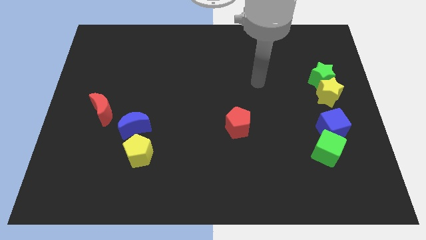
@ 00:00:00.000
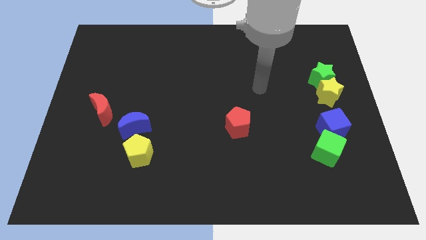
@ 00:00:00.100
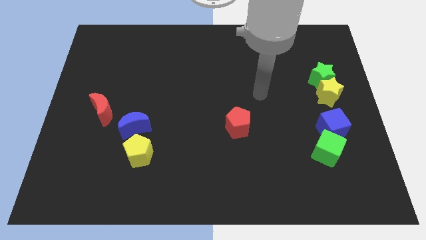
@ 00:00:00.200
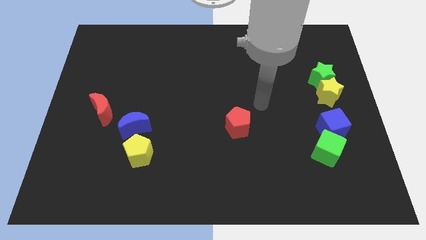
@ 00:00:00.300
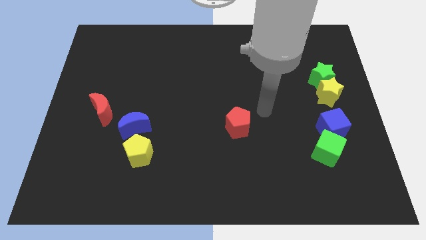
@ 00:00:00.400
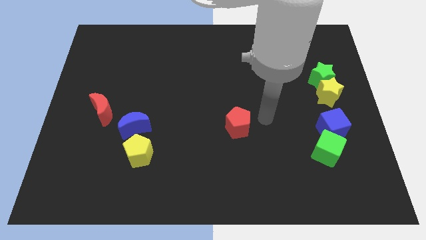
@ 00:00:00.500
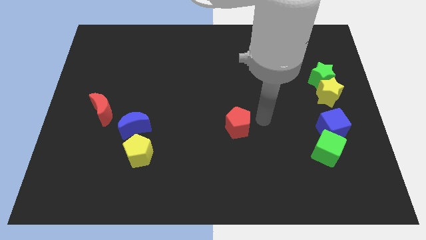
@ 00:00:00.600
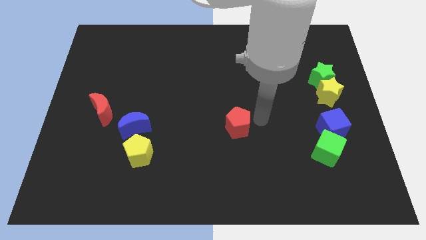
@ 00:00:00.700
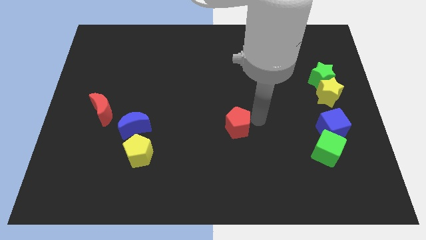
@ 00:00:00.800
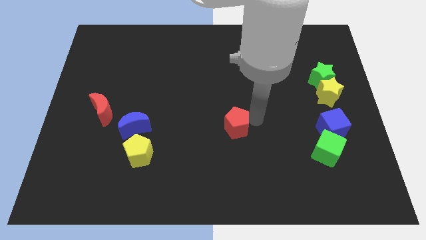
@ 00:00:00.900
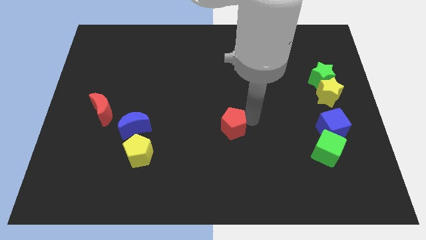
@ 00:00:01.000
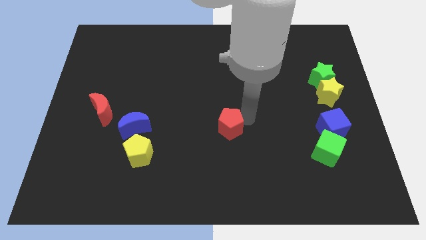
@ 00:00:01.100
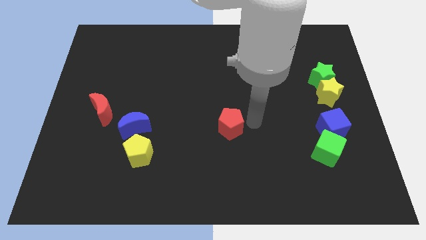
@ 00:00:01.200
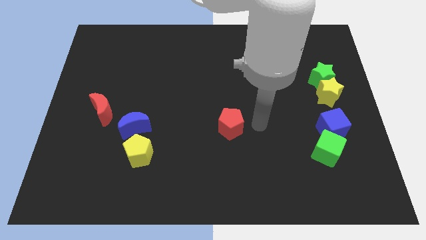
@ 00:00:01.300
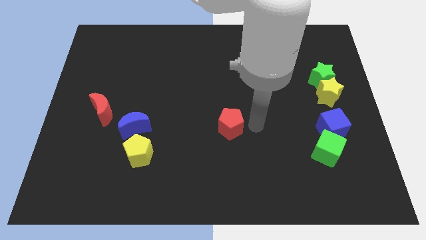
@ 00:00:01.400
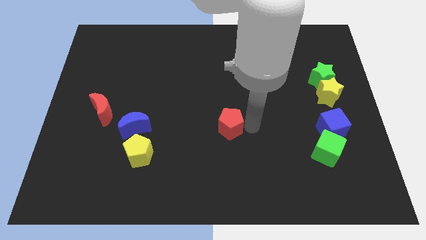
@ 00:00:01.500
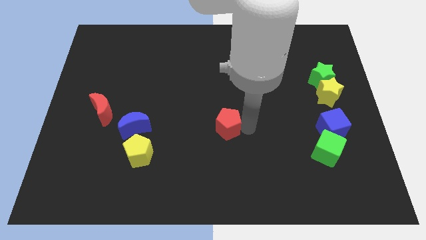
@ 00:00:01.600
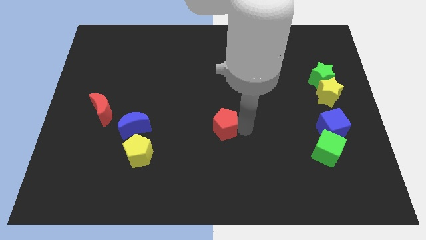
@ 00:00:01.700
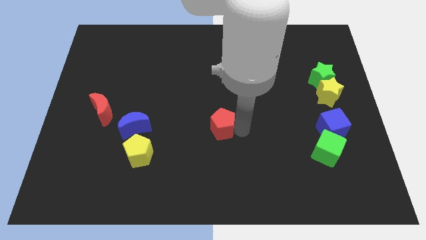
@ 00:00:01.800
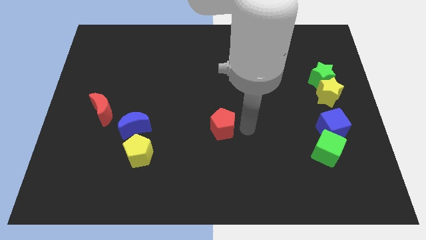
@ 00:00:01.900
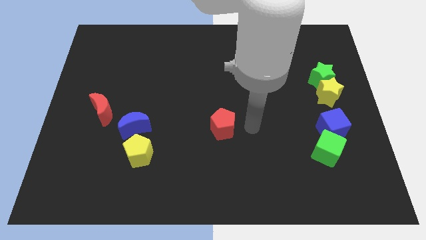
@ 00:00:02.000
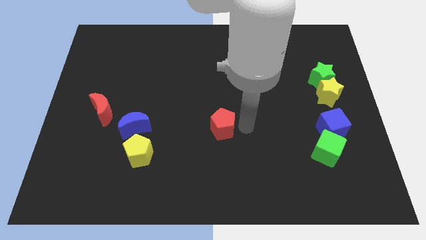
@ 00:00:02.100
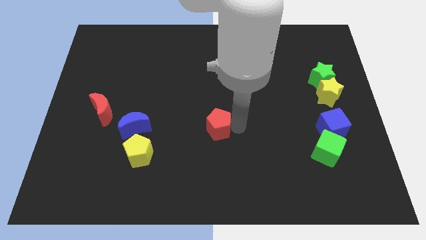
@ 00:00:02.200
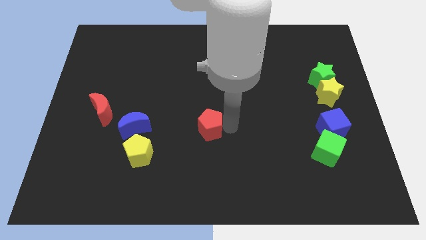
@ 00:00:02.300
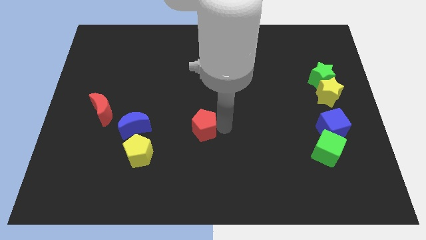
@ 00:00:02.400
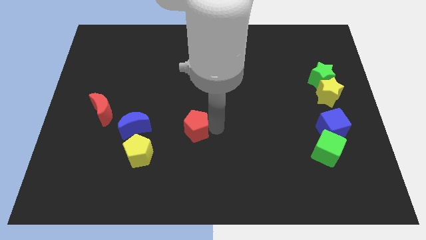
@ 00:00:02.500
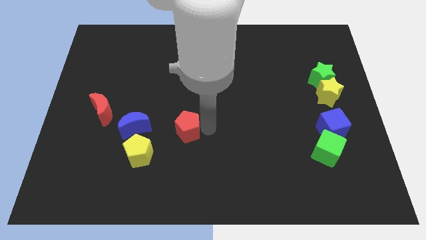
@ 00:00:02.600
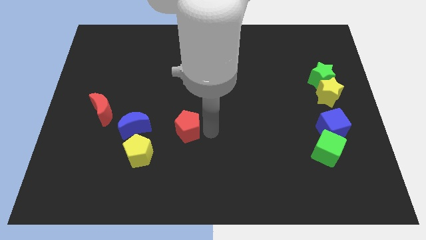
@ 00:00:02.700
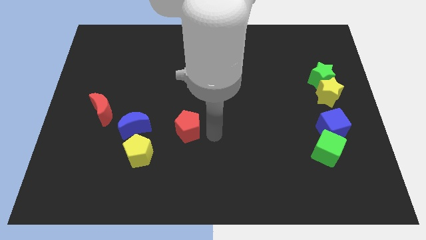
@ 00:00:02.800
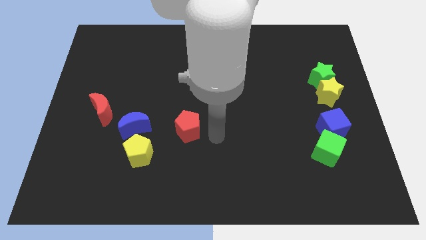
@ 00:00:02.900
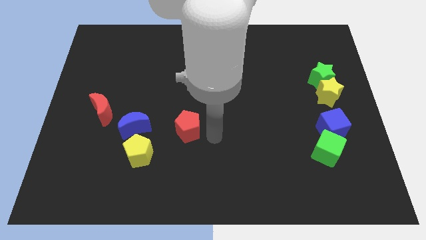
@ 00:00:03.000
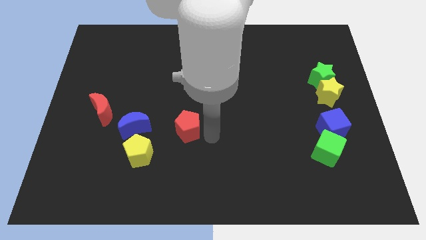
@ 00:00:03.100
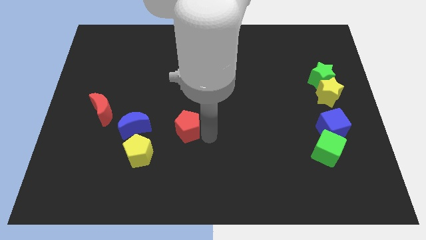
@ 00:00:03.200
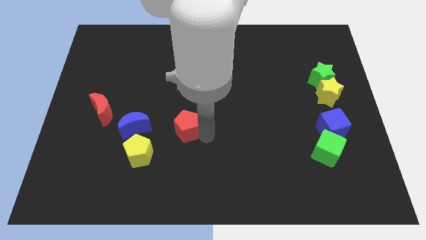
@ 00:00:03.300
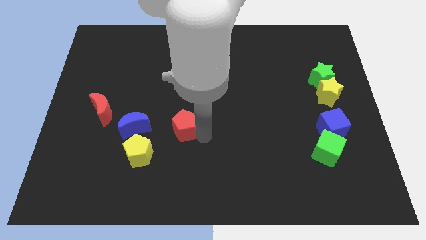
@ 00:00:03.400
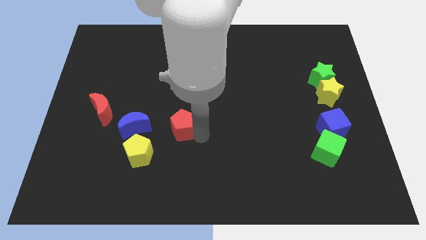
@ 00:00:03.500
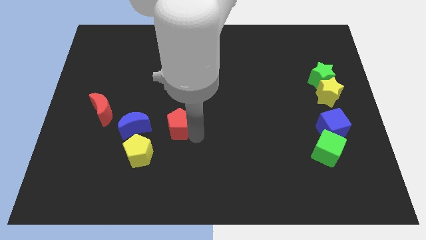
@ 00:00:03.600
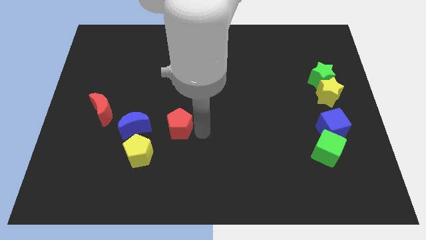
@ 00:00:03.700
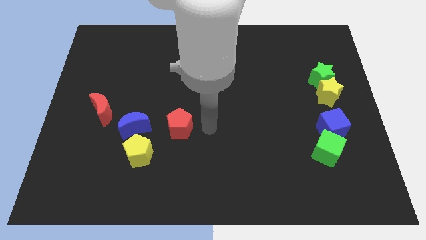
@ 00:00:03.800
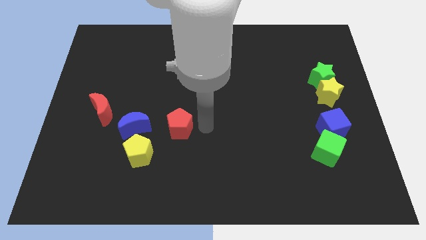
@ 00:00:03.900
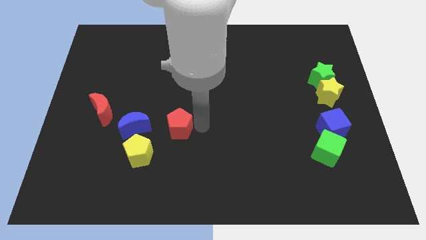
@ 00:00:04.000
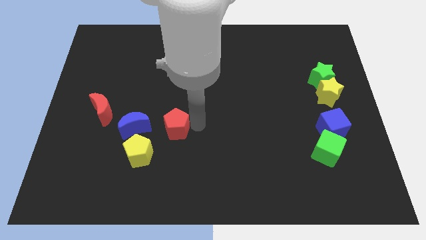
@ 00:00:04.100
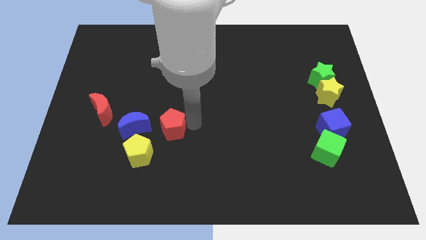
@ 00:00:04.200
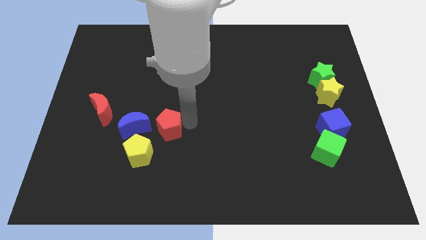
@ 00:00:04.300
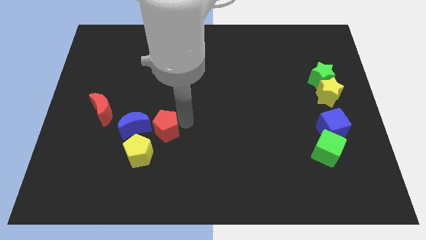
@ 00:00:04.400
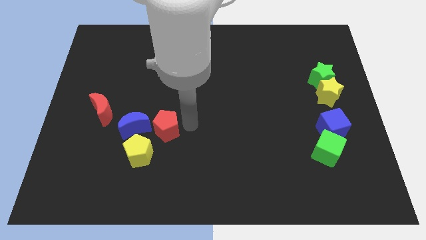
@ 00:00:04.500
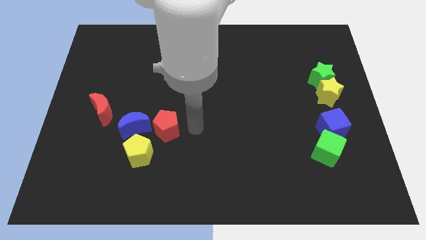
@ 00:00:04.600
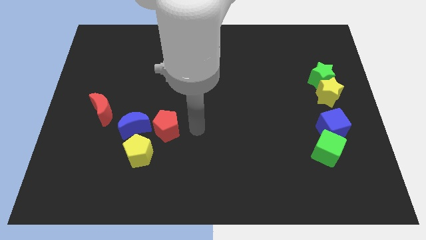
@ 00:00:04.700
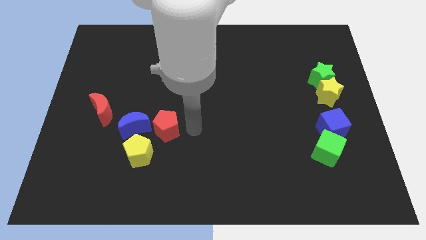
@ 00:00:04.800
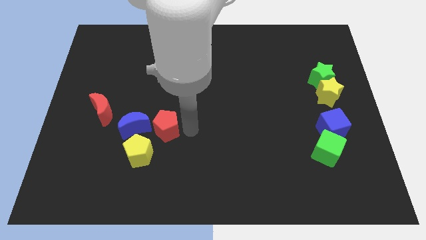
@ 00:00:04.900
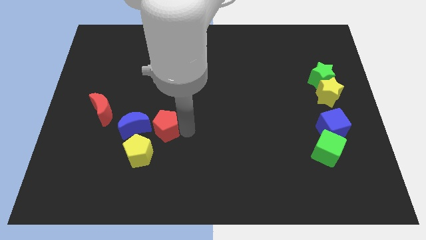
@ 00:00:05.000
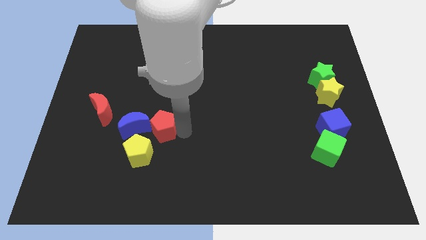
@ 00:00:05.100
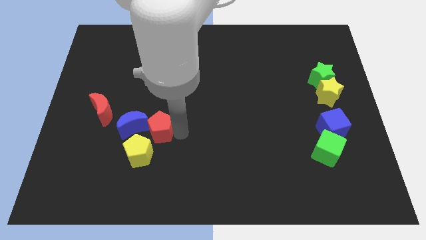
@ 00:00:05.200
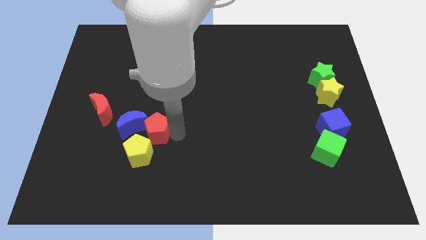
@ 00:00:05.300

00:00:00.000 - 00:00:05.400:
push the red pentagon close to the blue moon

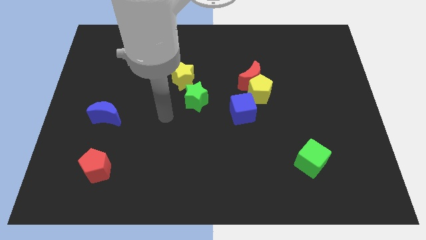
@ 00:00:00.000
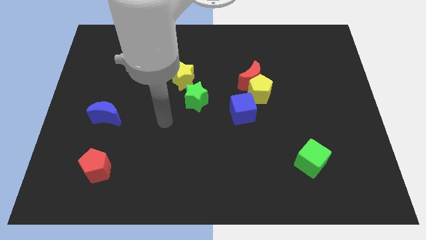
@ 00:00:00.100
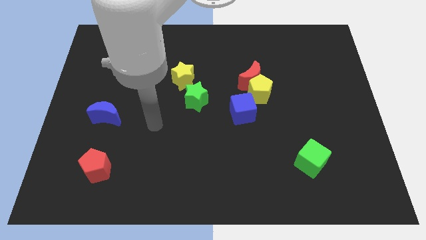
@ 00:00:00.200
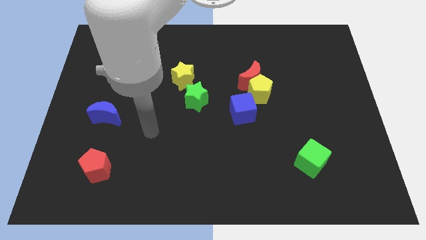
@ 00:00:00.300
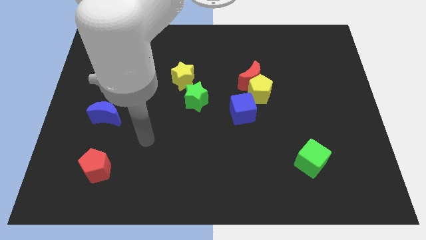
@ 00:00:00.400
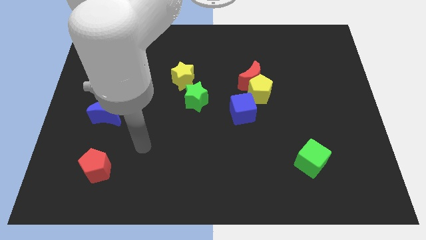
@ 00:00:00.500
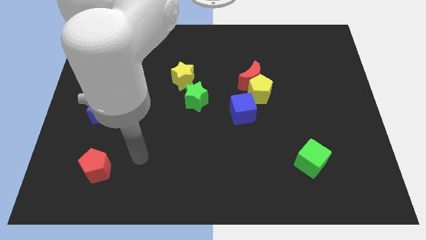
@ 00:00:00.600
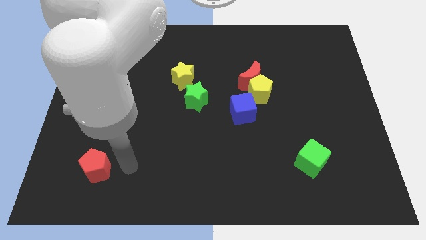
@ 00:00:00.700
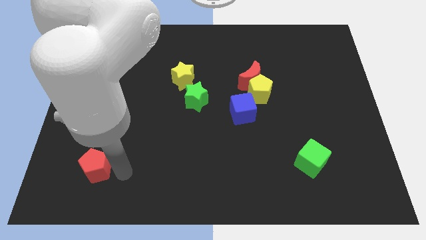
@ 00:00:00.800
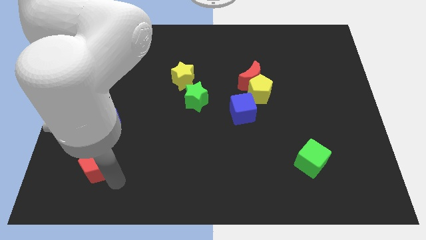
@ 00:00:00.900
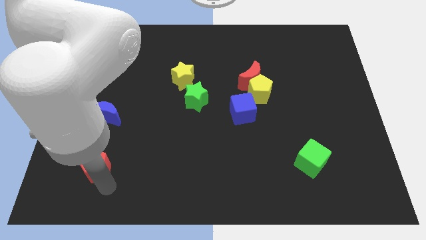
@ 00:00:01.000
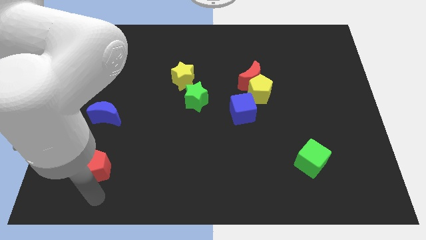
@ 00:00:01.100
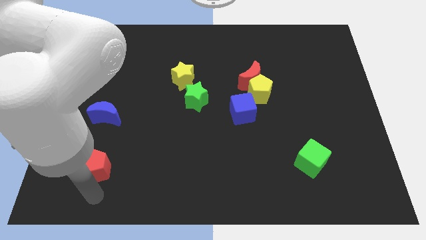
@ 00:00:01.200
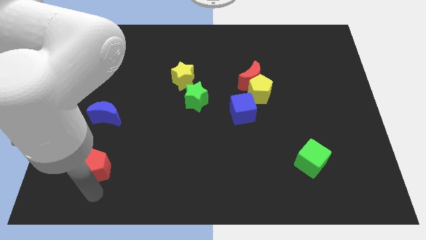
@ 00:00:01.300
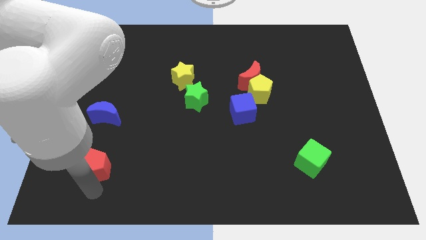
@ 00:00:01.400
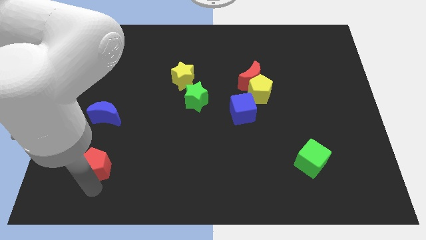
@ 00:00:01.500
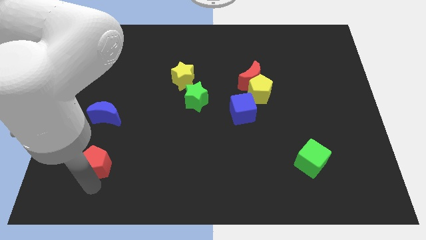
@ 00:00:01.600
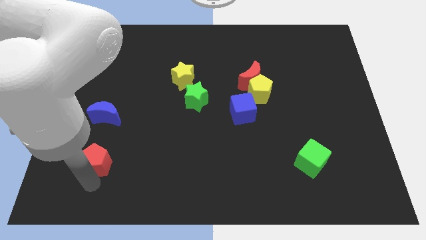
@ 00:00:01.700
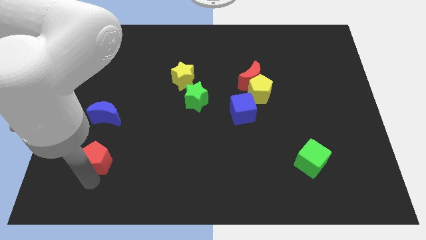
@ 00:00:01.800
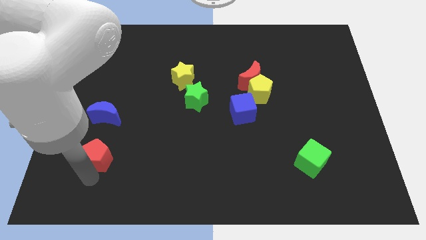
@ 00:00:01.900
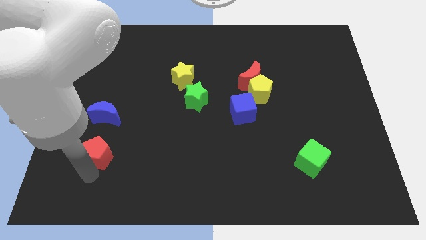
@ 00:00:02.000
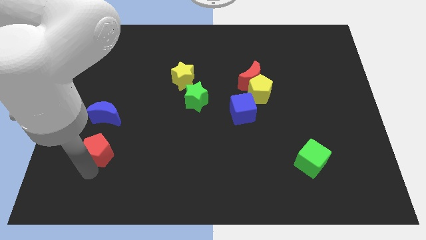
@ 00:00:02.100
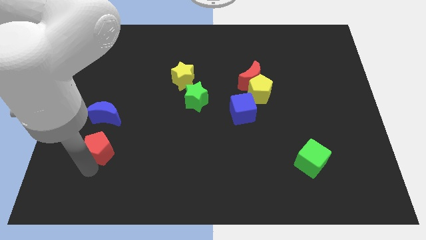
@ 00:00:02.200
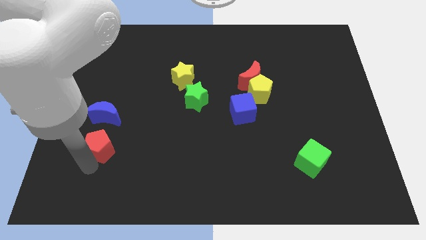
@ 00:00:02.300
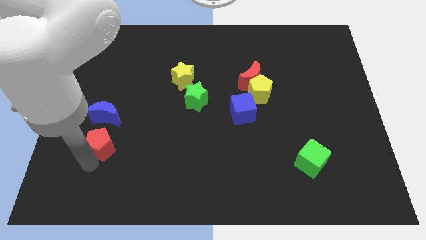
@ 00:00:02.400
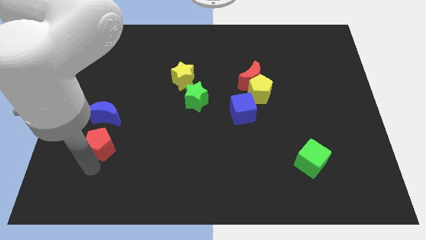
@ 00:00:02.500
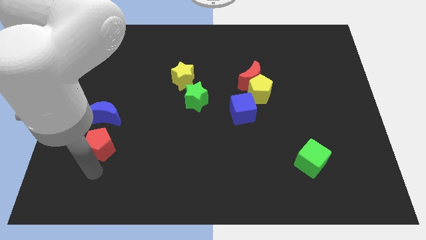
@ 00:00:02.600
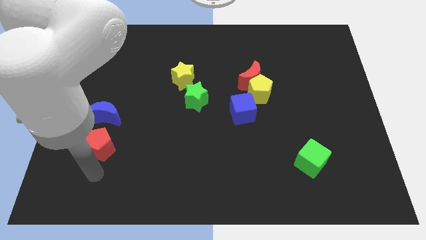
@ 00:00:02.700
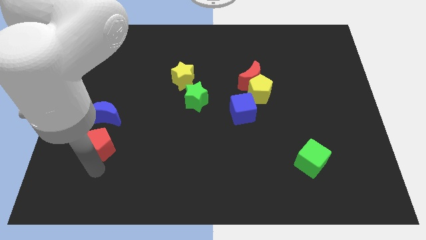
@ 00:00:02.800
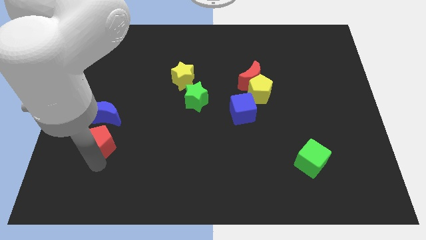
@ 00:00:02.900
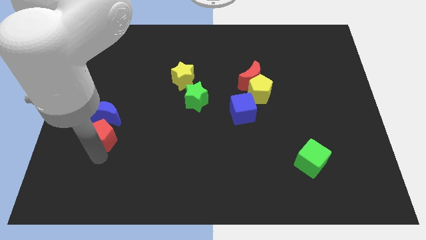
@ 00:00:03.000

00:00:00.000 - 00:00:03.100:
slide the red pentagon to the blue moon
